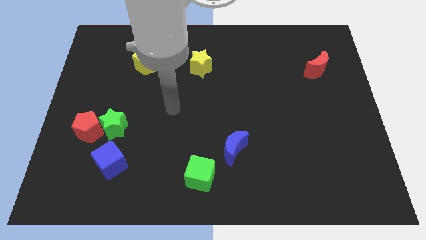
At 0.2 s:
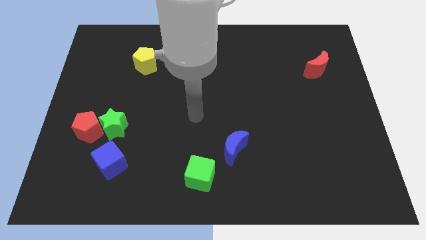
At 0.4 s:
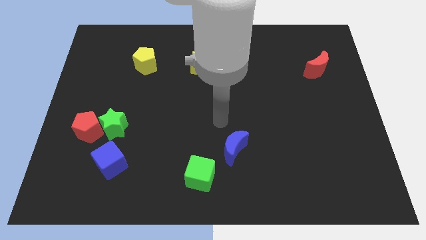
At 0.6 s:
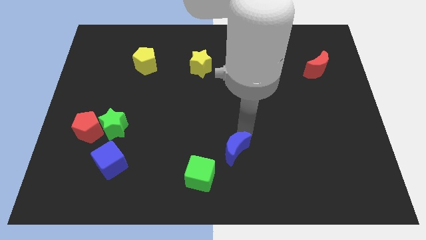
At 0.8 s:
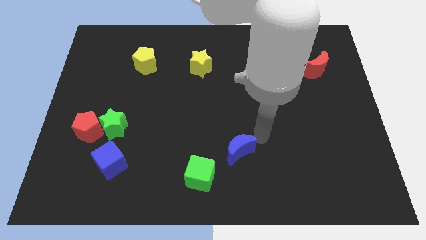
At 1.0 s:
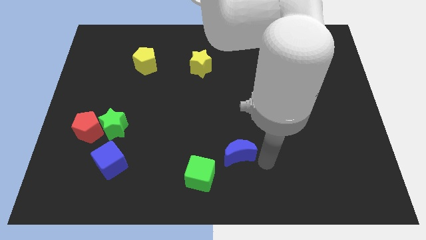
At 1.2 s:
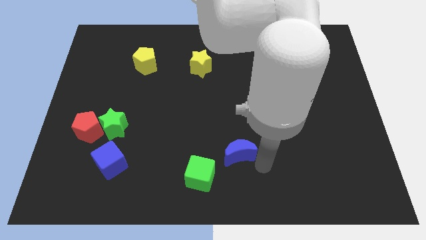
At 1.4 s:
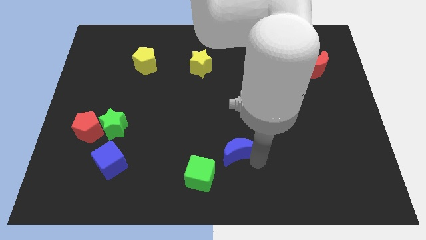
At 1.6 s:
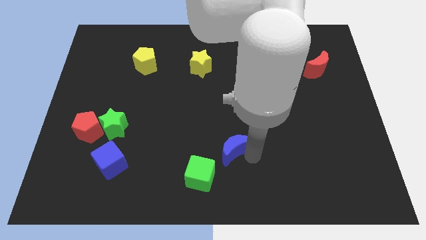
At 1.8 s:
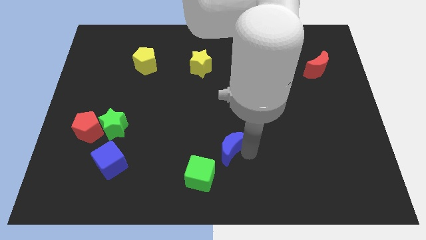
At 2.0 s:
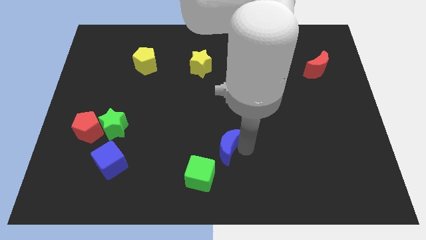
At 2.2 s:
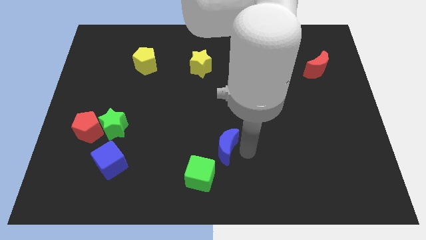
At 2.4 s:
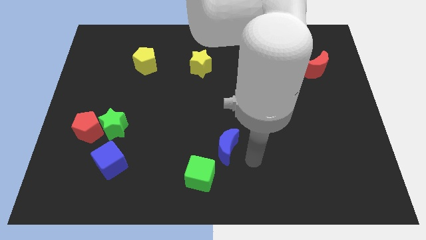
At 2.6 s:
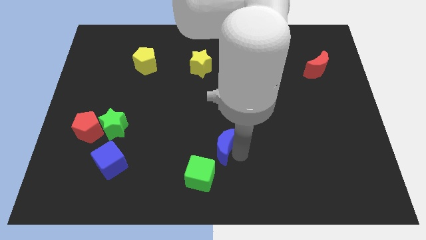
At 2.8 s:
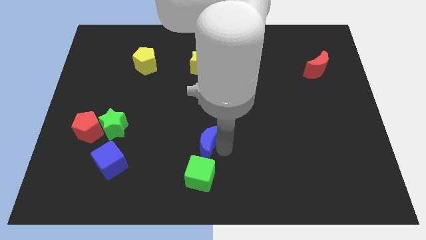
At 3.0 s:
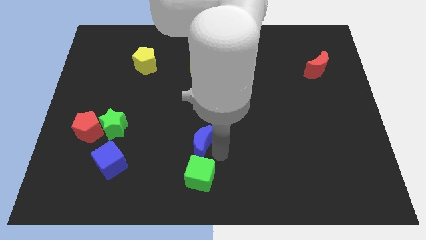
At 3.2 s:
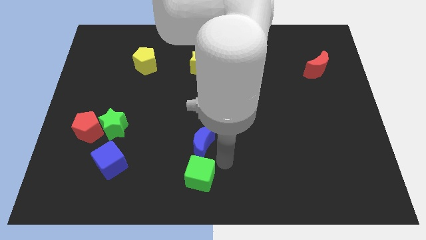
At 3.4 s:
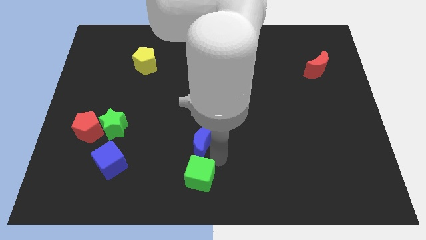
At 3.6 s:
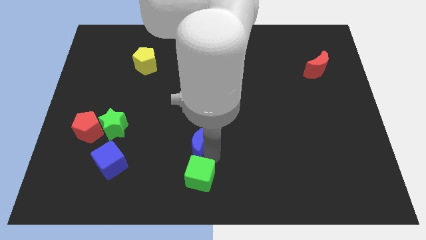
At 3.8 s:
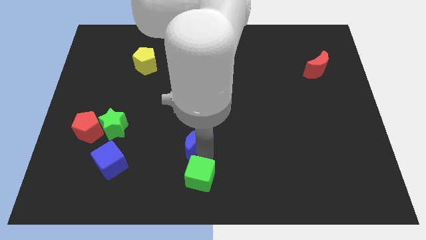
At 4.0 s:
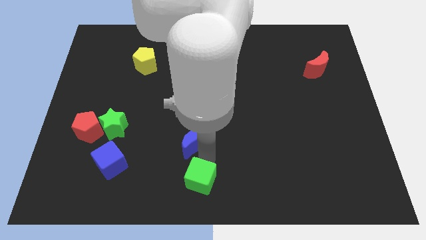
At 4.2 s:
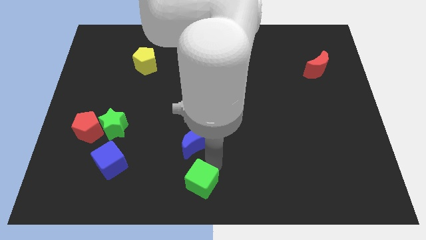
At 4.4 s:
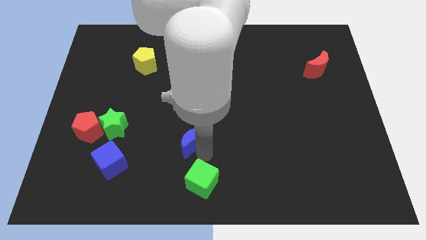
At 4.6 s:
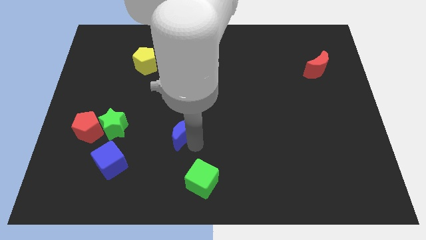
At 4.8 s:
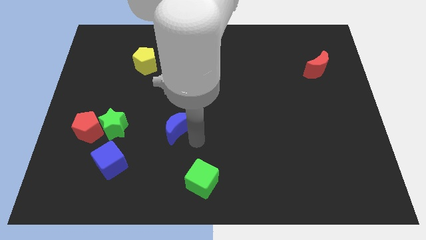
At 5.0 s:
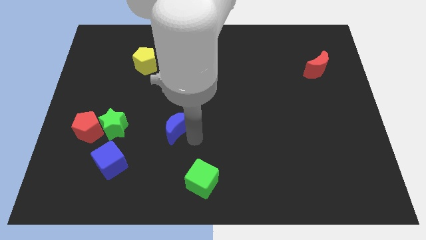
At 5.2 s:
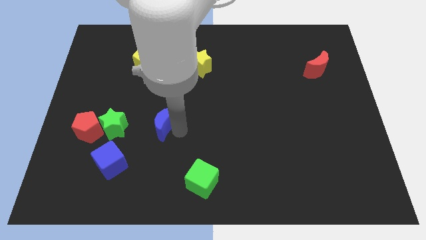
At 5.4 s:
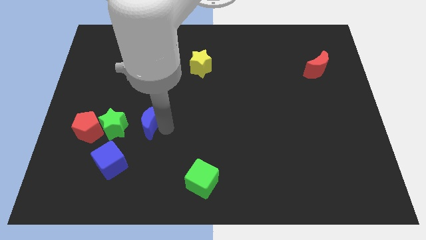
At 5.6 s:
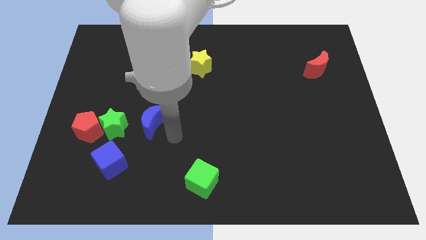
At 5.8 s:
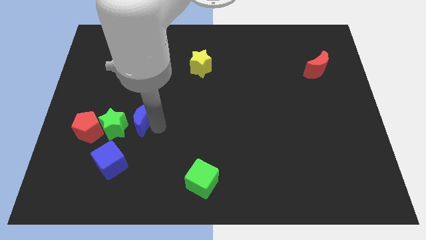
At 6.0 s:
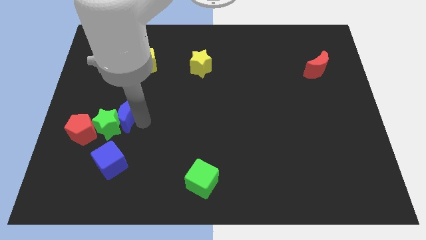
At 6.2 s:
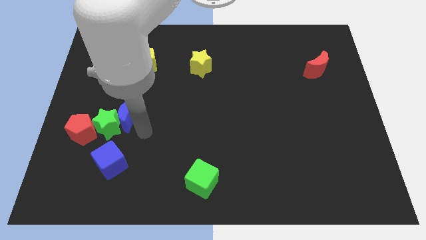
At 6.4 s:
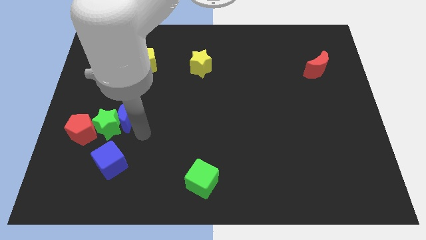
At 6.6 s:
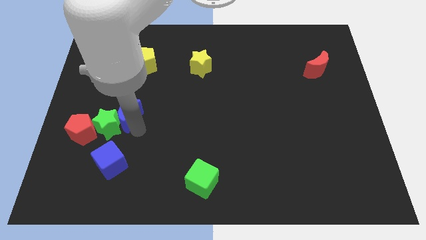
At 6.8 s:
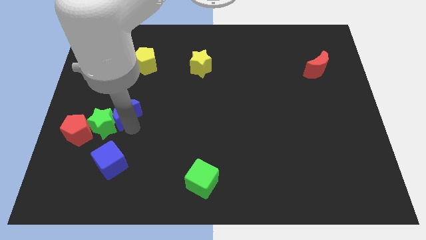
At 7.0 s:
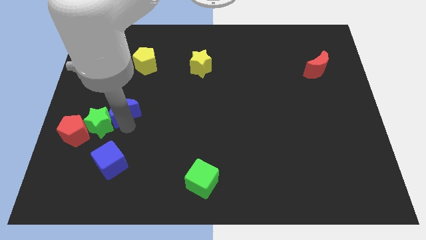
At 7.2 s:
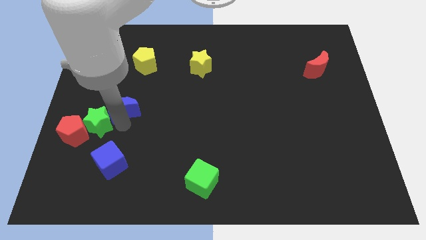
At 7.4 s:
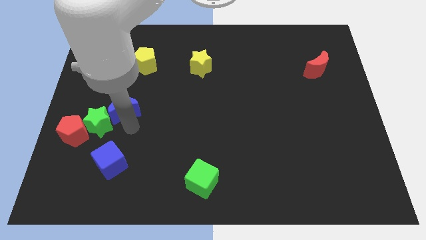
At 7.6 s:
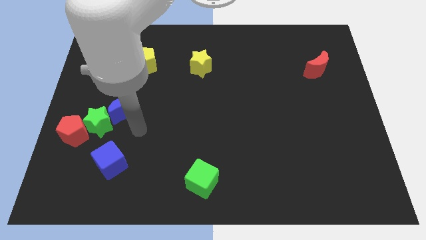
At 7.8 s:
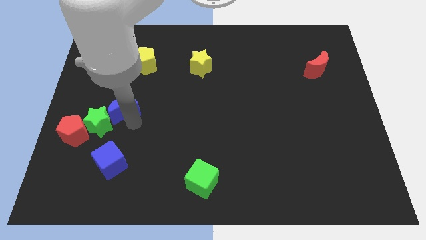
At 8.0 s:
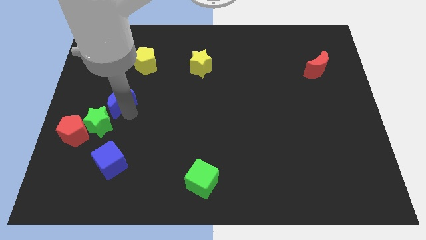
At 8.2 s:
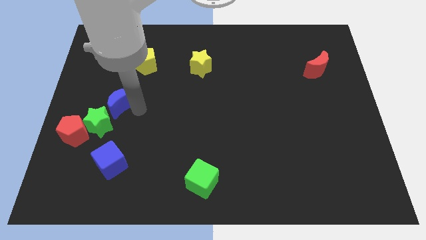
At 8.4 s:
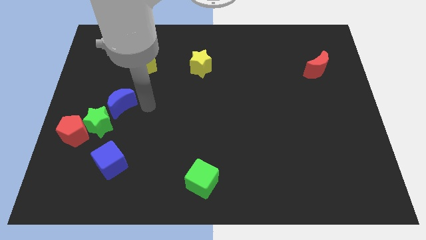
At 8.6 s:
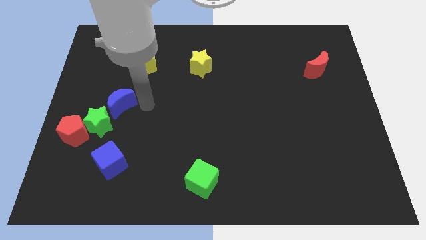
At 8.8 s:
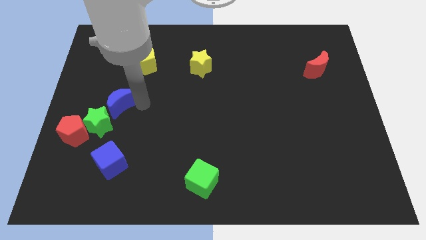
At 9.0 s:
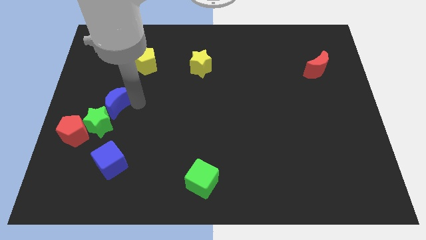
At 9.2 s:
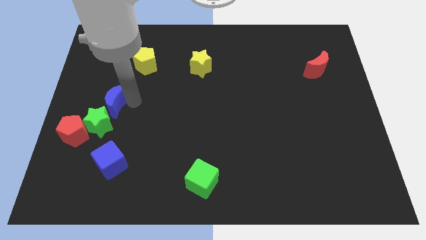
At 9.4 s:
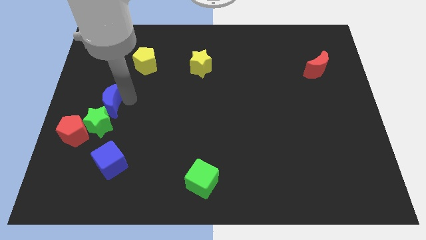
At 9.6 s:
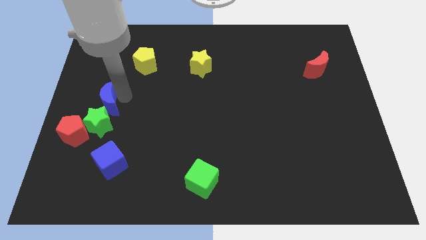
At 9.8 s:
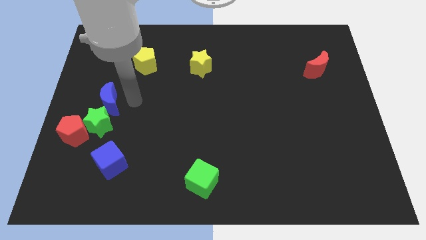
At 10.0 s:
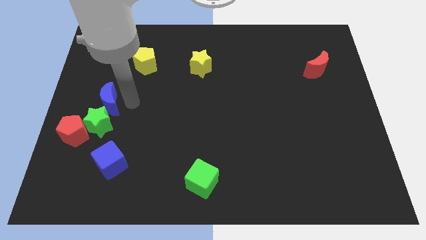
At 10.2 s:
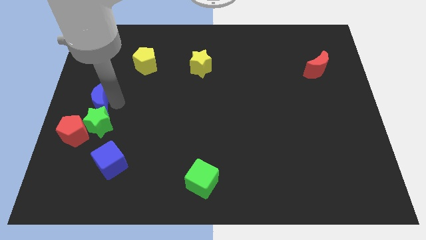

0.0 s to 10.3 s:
move the blue moon to the left side

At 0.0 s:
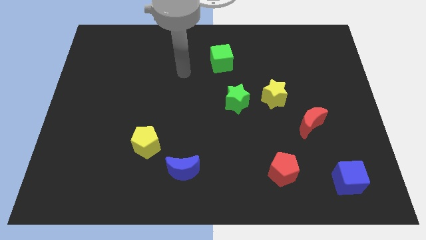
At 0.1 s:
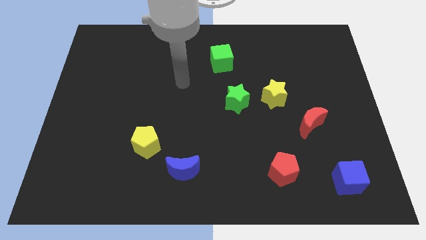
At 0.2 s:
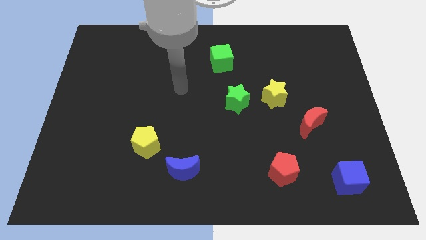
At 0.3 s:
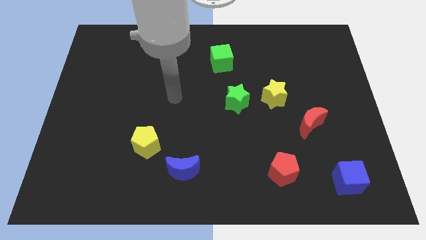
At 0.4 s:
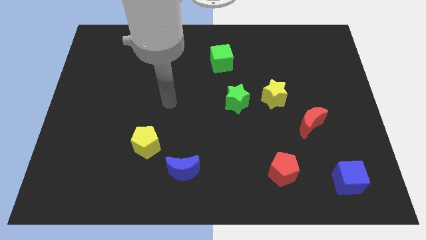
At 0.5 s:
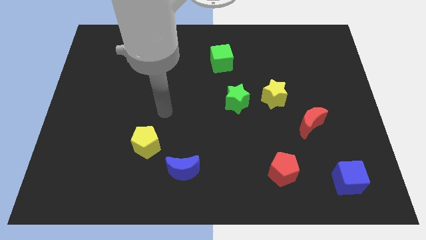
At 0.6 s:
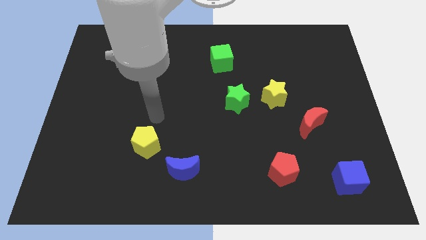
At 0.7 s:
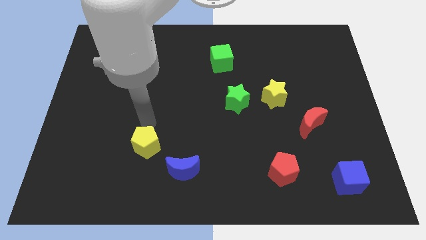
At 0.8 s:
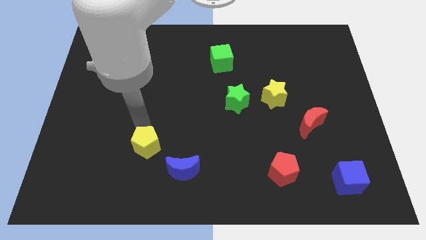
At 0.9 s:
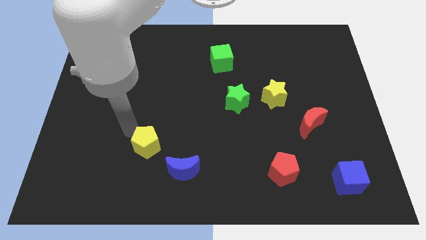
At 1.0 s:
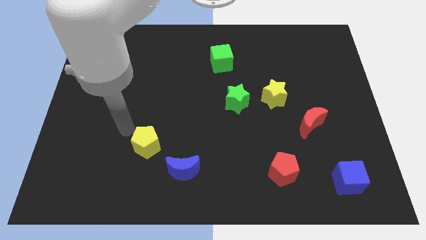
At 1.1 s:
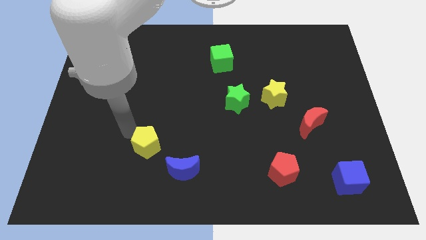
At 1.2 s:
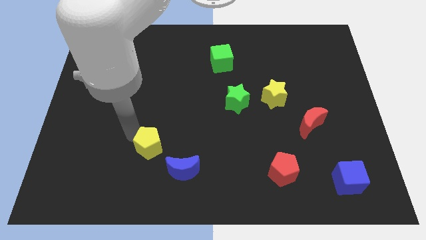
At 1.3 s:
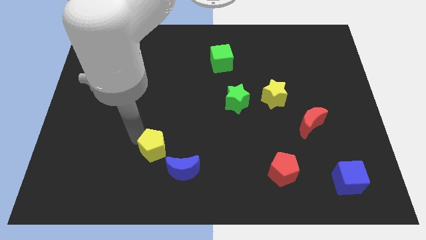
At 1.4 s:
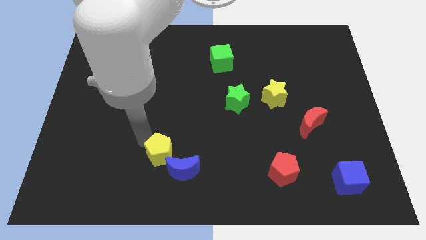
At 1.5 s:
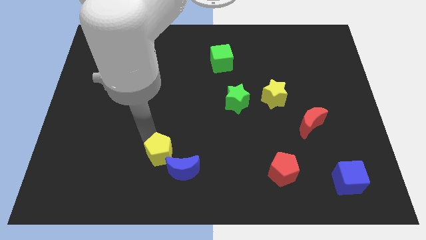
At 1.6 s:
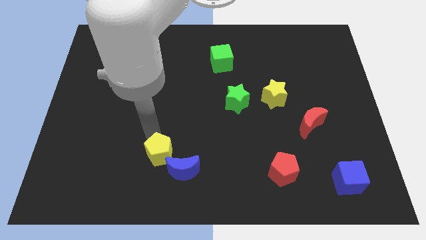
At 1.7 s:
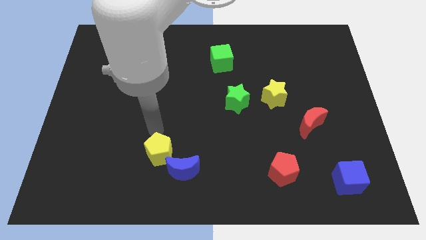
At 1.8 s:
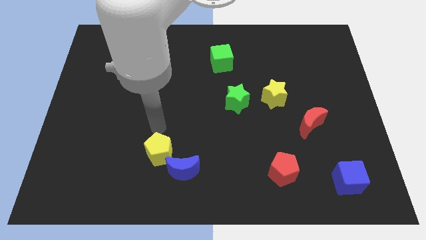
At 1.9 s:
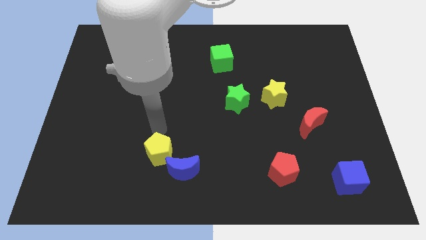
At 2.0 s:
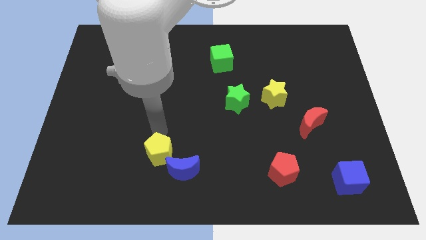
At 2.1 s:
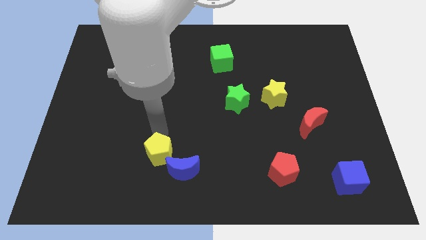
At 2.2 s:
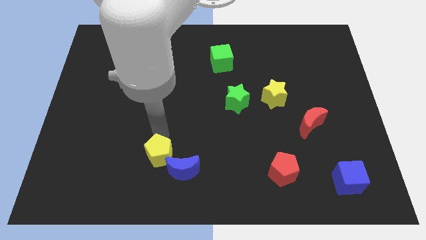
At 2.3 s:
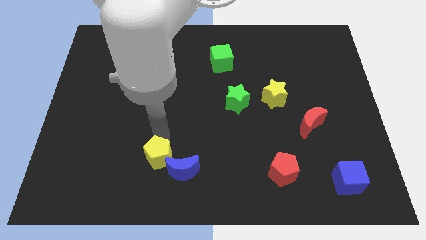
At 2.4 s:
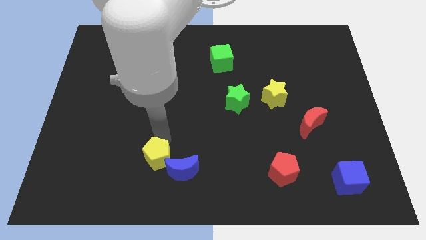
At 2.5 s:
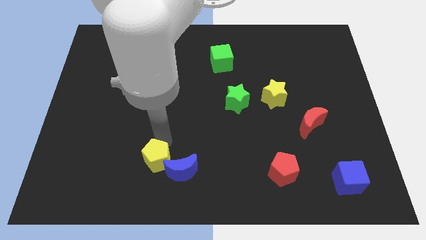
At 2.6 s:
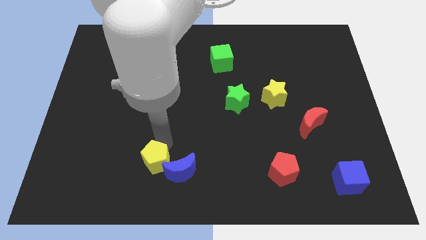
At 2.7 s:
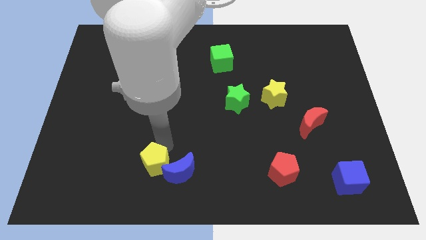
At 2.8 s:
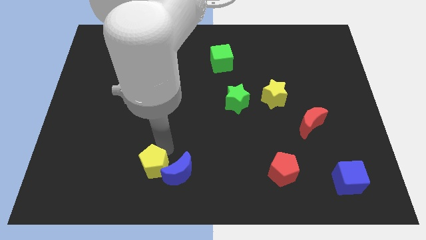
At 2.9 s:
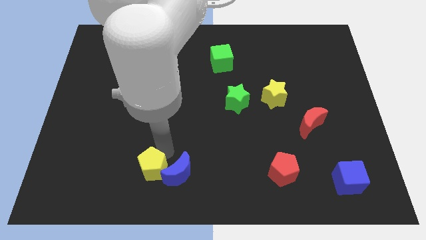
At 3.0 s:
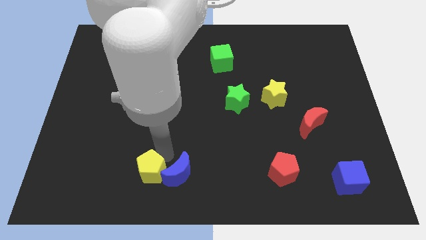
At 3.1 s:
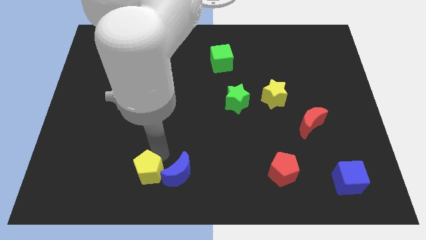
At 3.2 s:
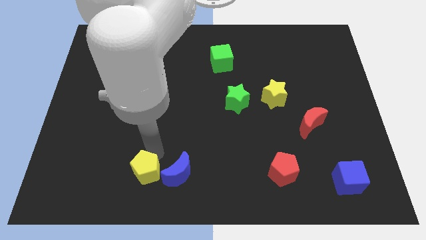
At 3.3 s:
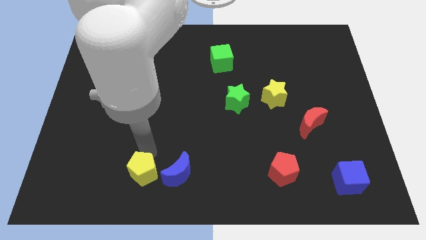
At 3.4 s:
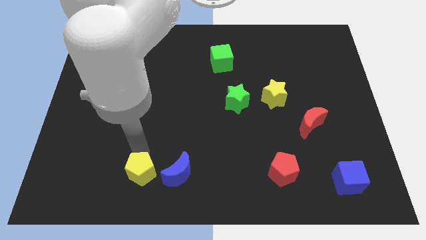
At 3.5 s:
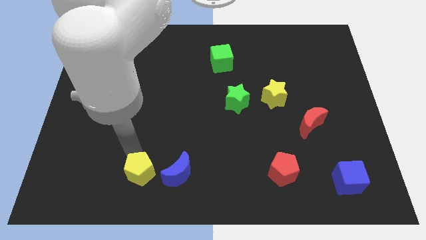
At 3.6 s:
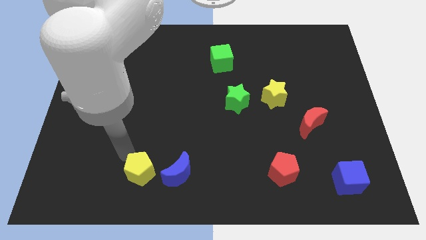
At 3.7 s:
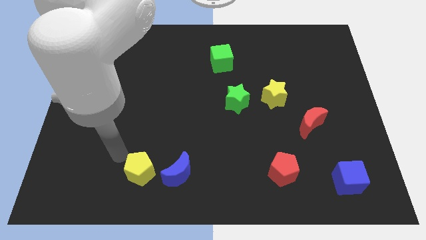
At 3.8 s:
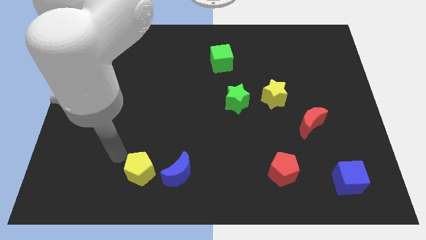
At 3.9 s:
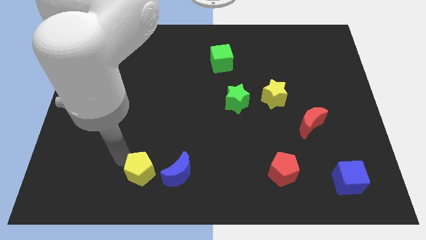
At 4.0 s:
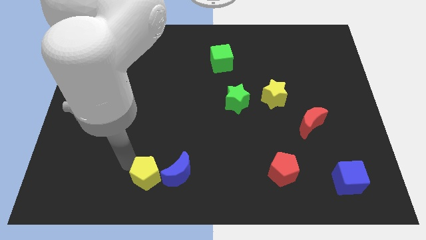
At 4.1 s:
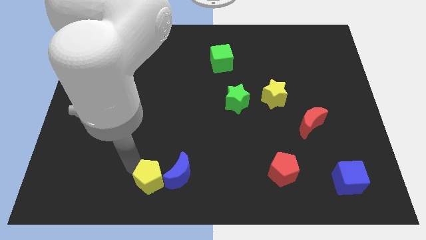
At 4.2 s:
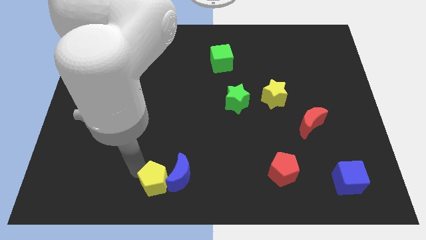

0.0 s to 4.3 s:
slide the yellow pentagon to the bottom
